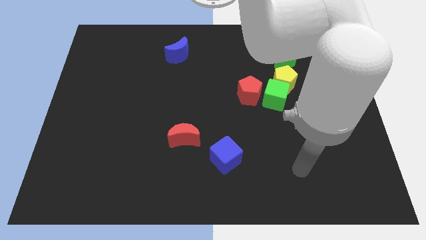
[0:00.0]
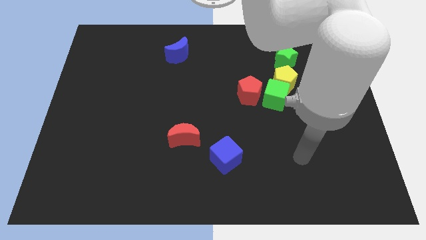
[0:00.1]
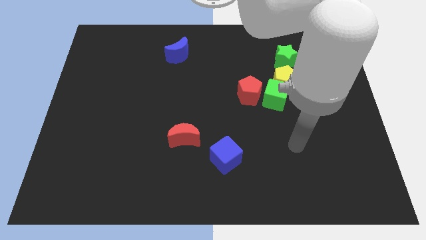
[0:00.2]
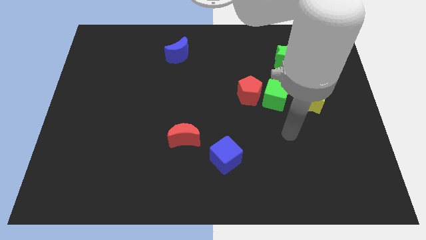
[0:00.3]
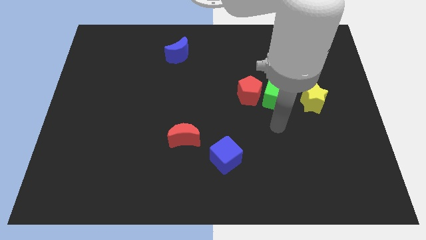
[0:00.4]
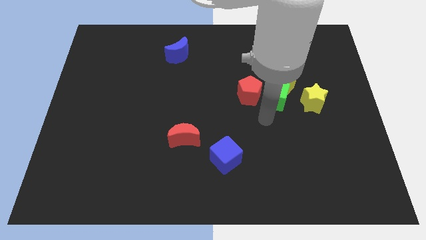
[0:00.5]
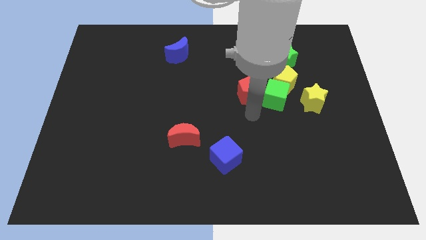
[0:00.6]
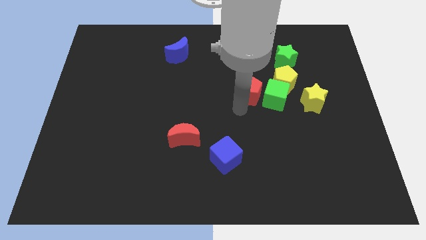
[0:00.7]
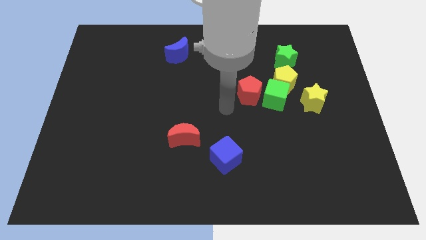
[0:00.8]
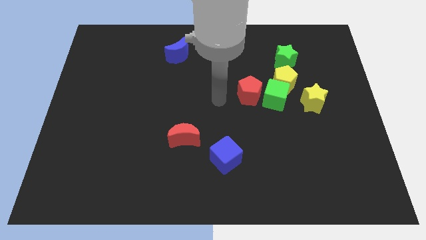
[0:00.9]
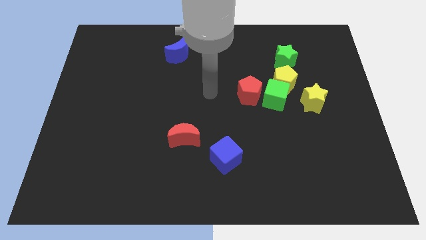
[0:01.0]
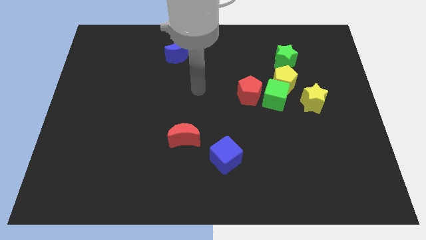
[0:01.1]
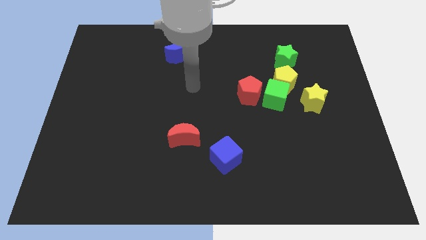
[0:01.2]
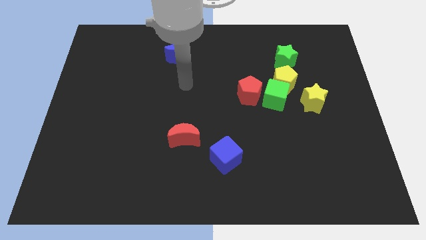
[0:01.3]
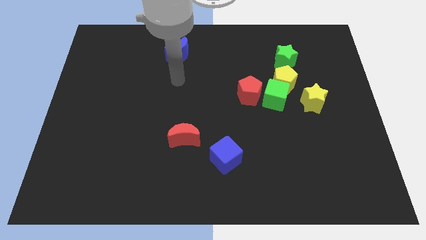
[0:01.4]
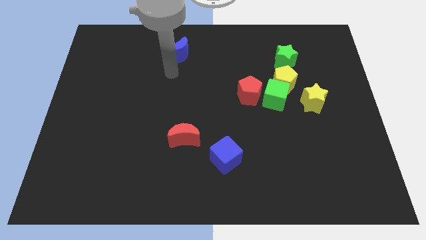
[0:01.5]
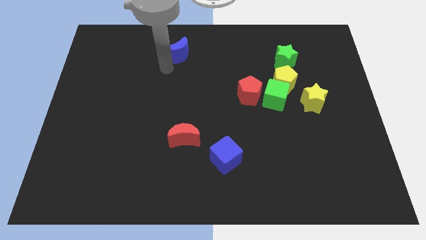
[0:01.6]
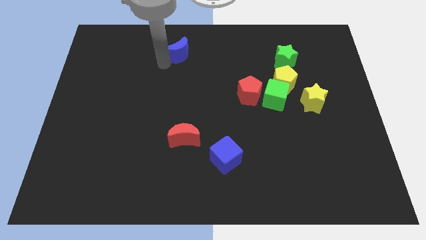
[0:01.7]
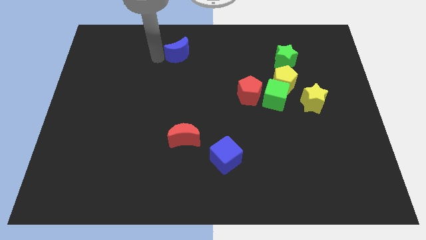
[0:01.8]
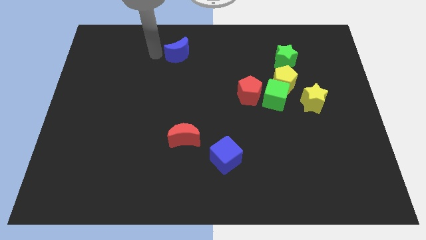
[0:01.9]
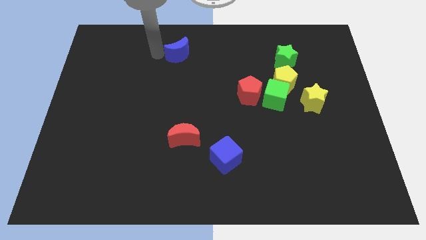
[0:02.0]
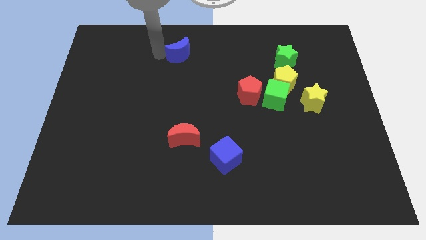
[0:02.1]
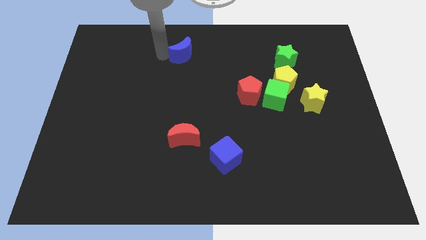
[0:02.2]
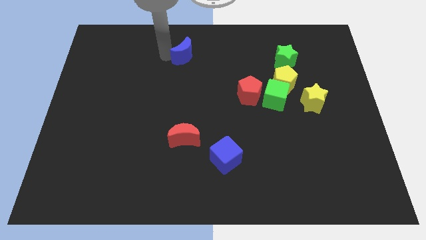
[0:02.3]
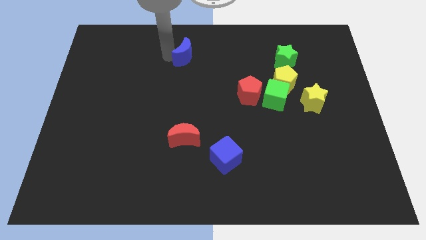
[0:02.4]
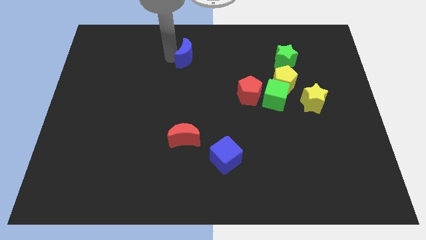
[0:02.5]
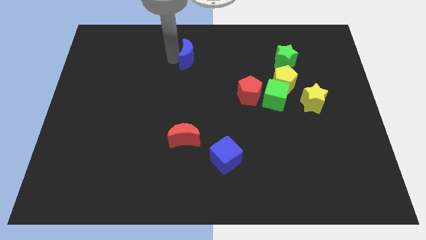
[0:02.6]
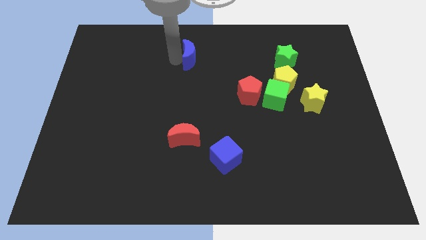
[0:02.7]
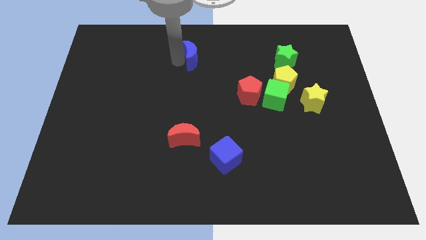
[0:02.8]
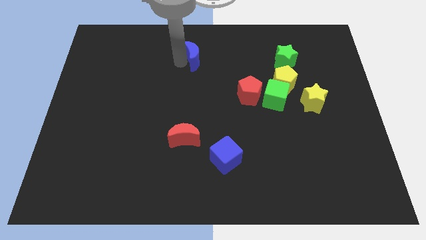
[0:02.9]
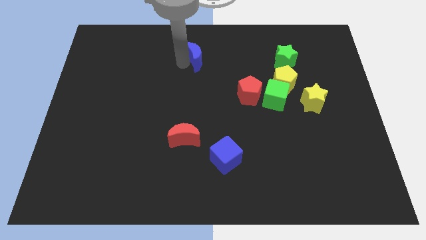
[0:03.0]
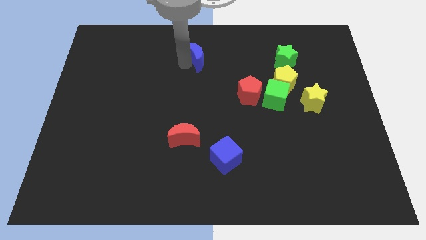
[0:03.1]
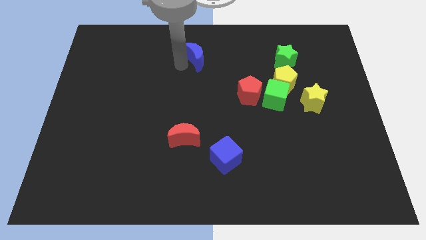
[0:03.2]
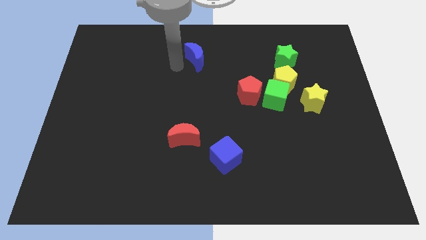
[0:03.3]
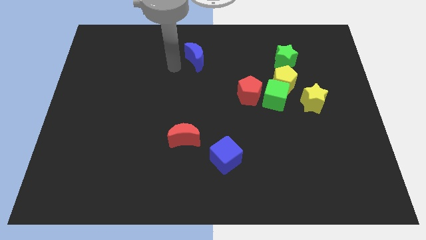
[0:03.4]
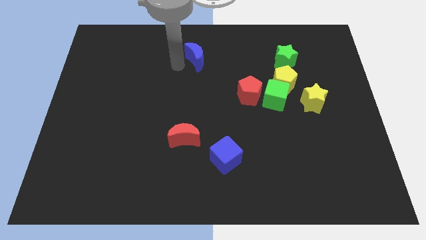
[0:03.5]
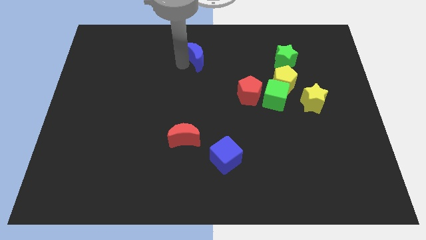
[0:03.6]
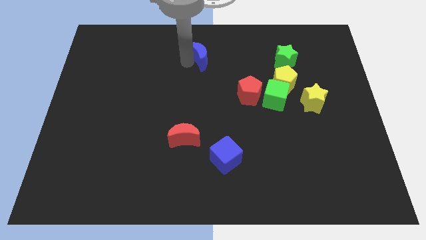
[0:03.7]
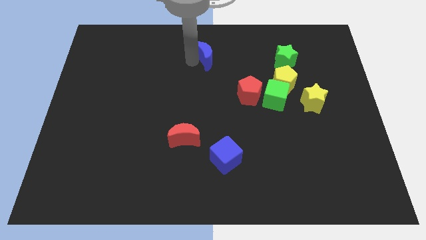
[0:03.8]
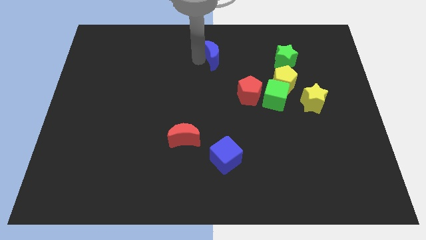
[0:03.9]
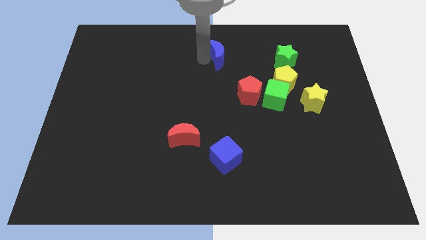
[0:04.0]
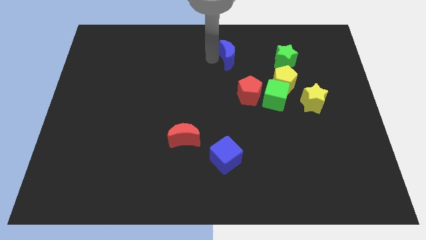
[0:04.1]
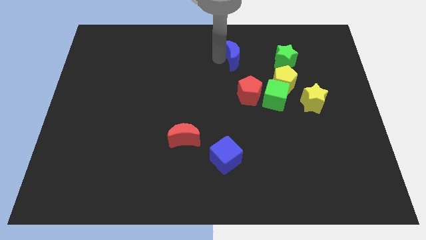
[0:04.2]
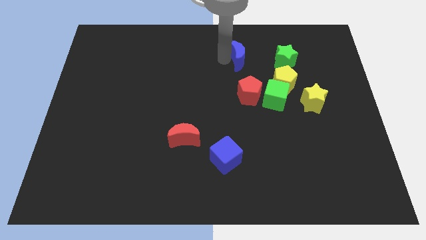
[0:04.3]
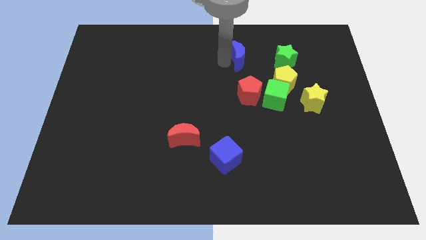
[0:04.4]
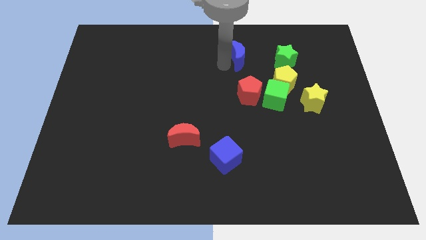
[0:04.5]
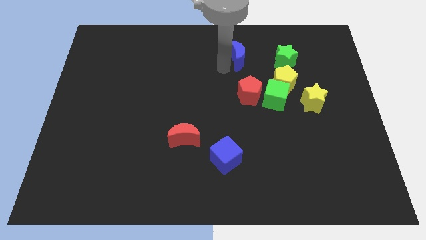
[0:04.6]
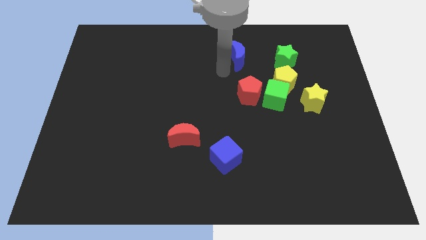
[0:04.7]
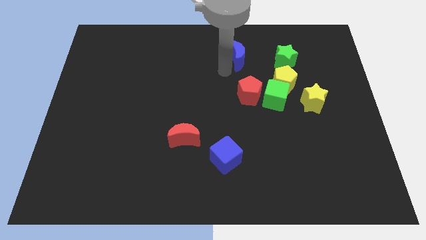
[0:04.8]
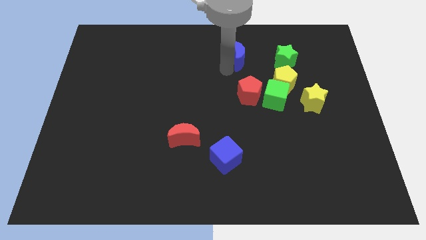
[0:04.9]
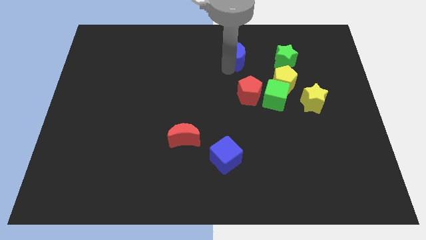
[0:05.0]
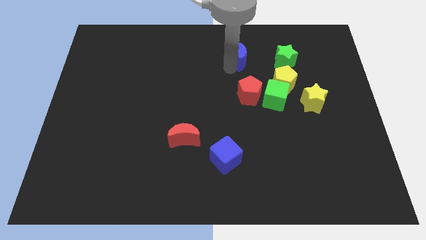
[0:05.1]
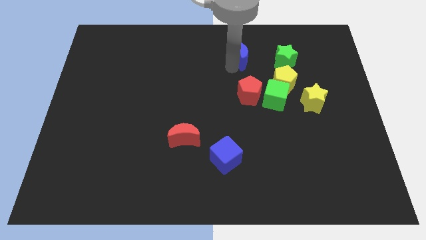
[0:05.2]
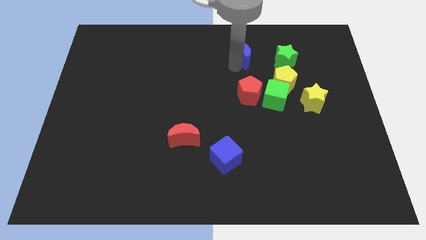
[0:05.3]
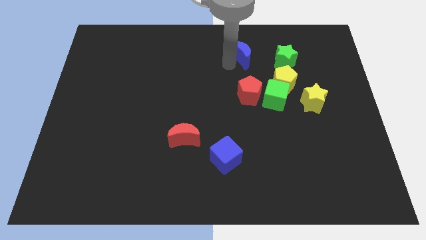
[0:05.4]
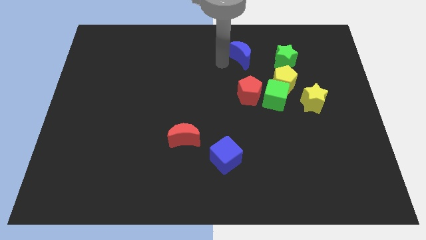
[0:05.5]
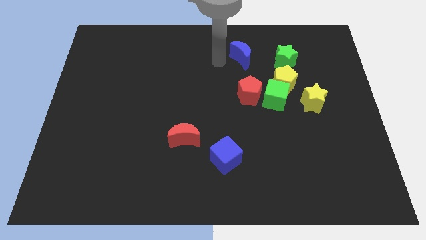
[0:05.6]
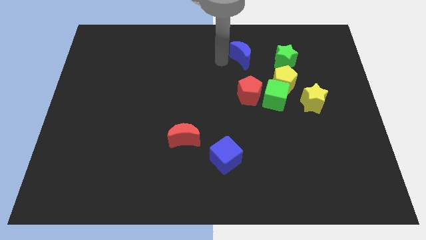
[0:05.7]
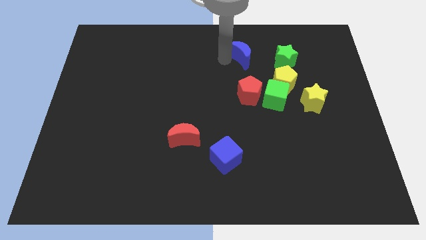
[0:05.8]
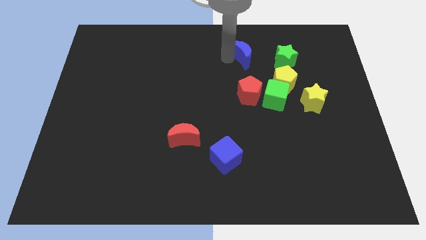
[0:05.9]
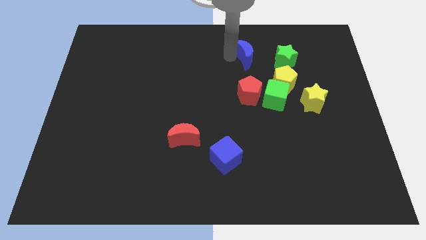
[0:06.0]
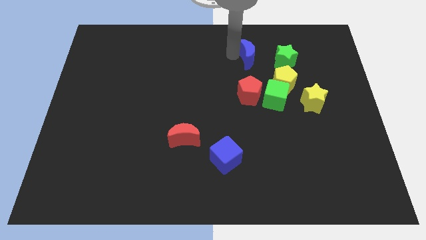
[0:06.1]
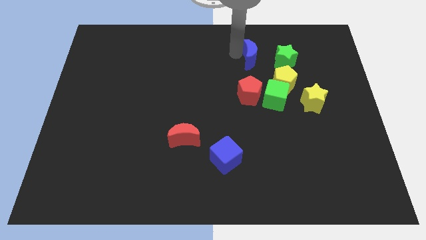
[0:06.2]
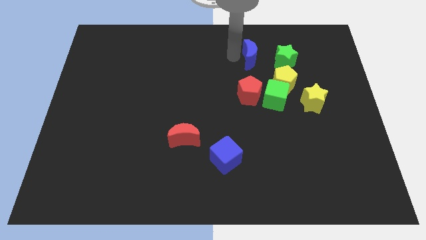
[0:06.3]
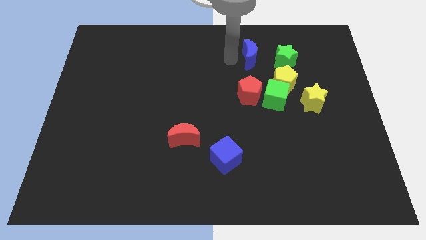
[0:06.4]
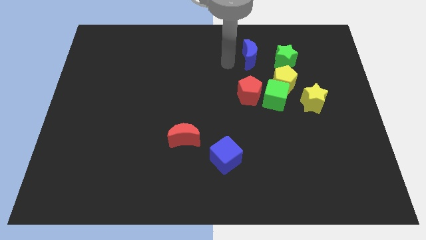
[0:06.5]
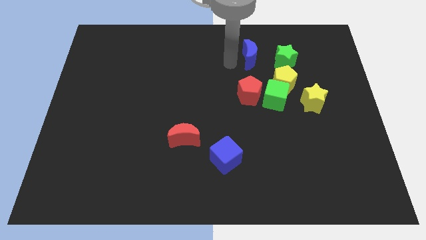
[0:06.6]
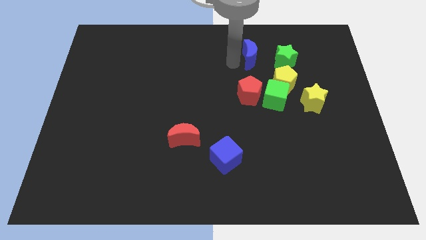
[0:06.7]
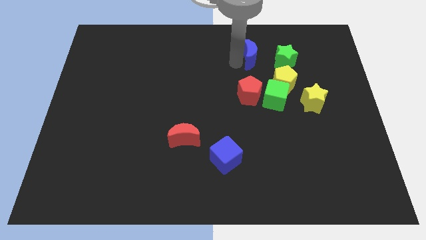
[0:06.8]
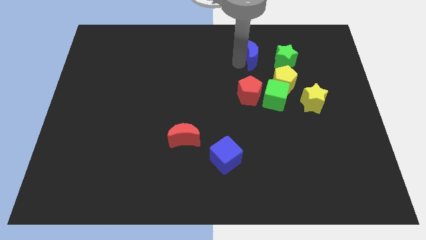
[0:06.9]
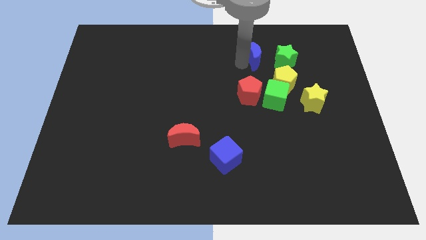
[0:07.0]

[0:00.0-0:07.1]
slide the blue moon to the right

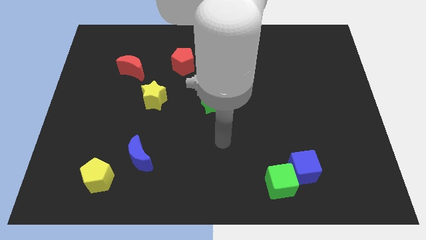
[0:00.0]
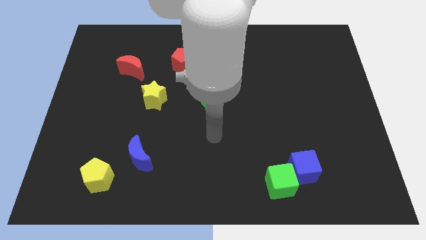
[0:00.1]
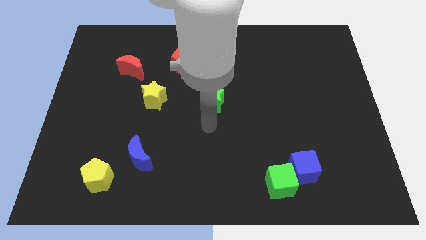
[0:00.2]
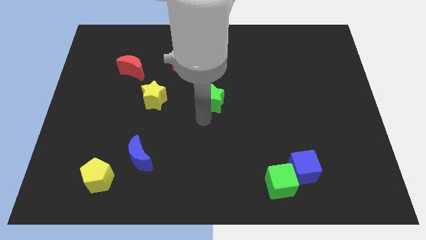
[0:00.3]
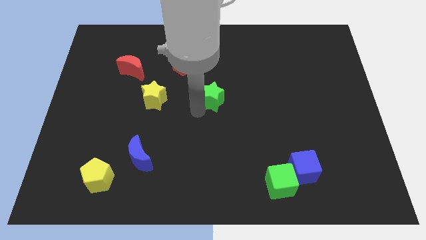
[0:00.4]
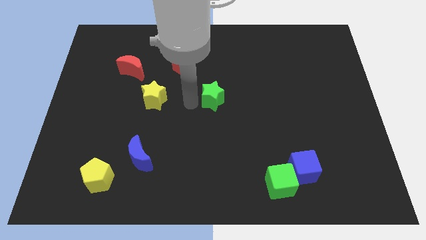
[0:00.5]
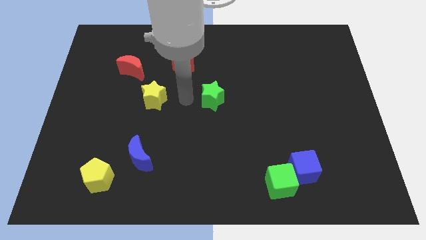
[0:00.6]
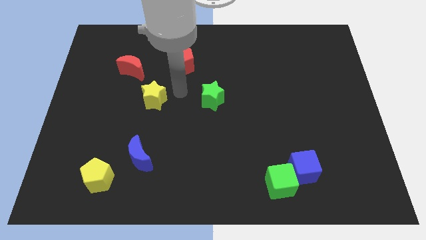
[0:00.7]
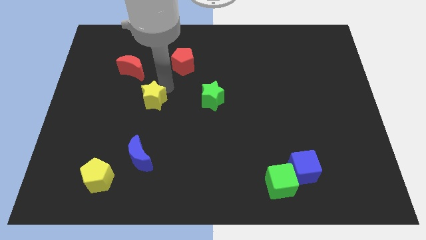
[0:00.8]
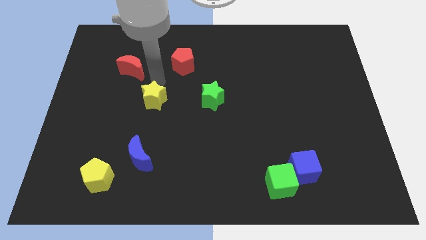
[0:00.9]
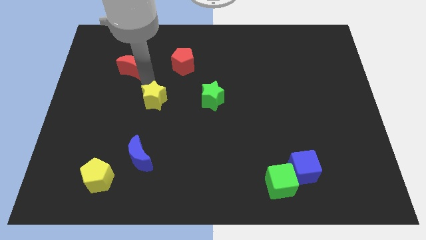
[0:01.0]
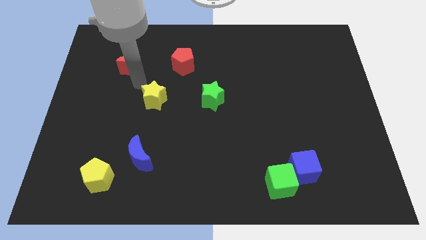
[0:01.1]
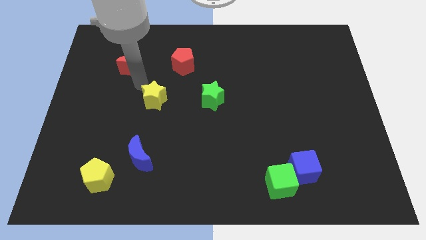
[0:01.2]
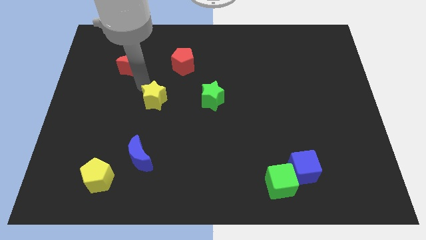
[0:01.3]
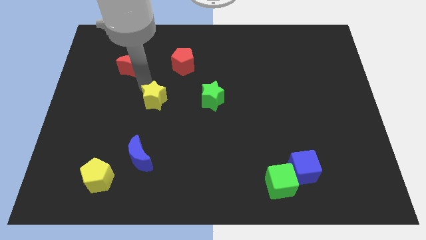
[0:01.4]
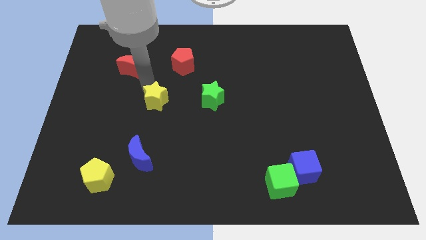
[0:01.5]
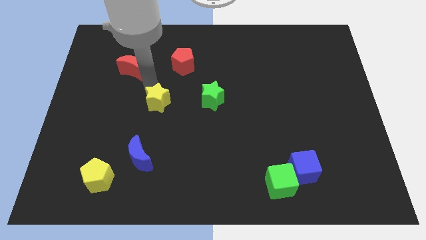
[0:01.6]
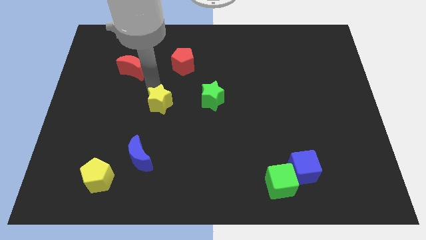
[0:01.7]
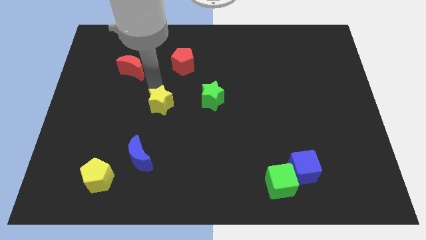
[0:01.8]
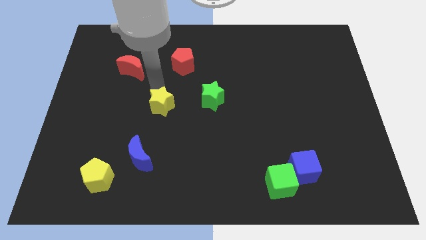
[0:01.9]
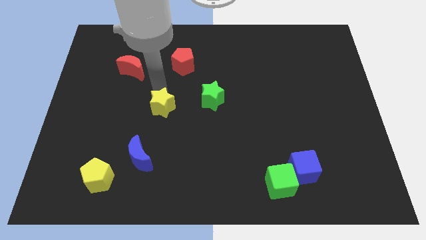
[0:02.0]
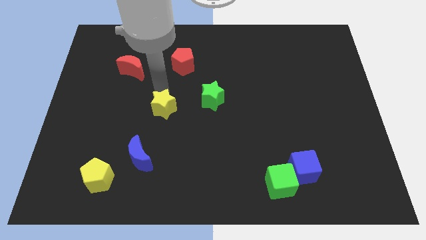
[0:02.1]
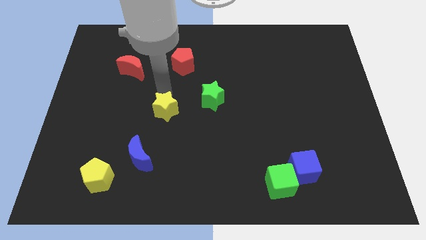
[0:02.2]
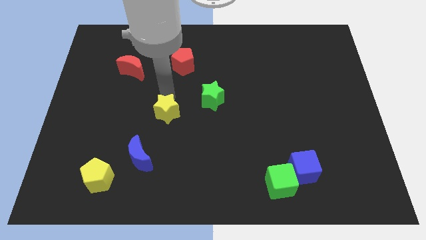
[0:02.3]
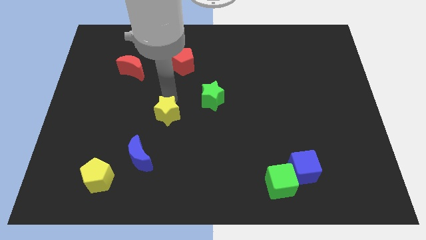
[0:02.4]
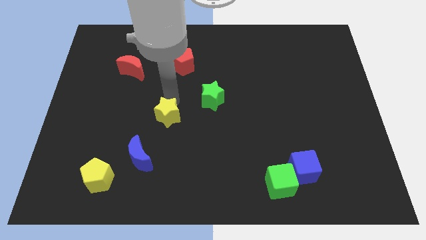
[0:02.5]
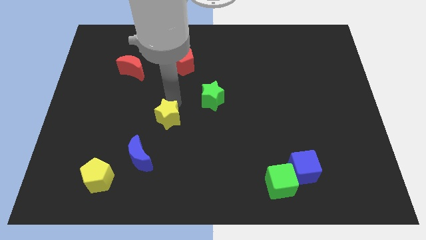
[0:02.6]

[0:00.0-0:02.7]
move the yellow star downwards and to the right a little bit
